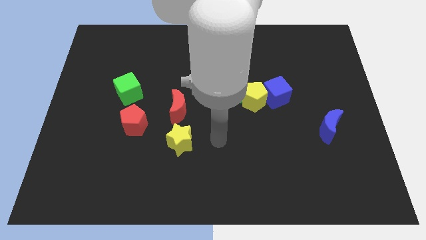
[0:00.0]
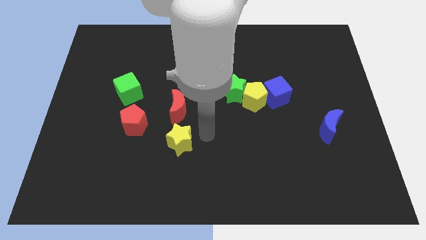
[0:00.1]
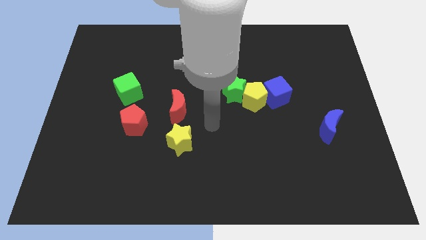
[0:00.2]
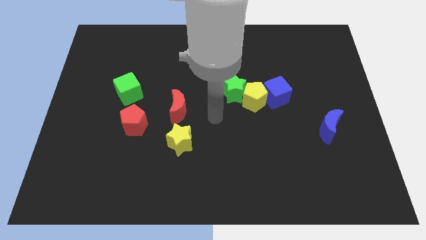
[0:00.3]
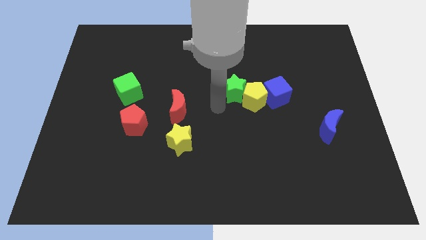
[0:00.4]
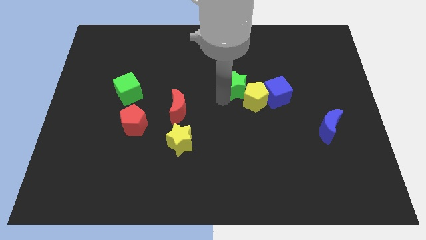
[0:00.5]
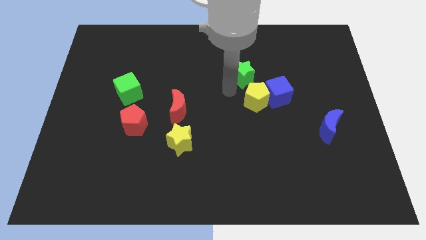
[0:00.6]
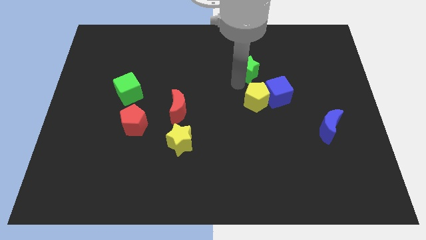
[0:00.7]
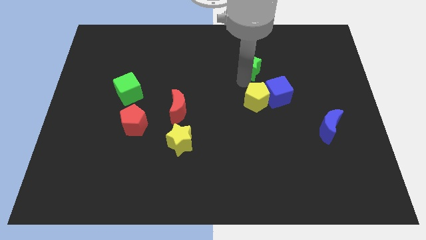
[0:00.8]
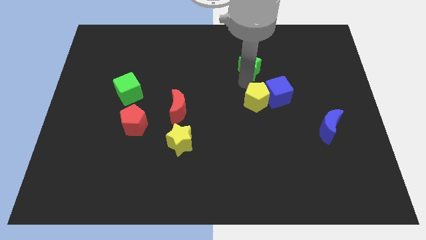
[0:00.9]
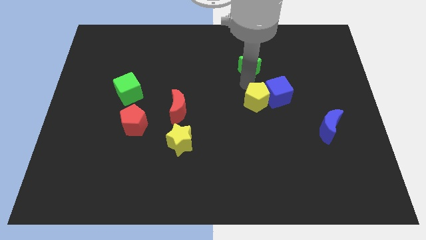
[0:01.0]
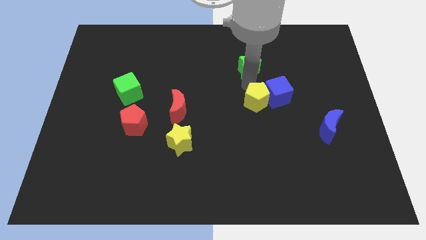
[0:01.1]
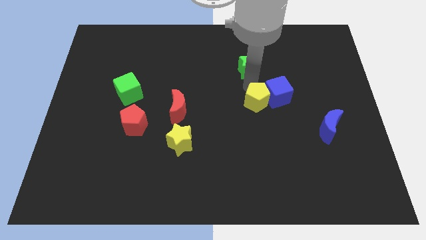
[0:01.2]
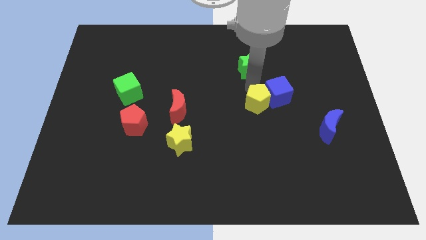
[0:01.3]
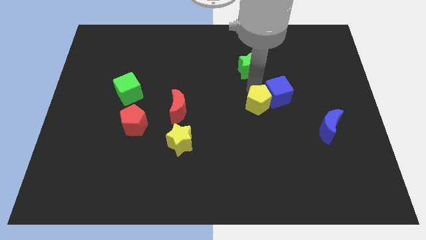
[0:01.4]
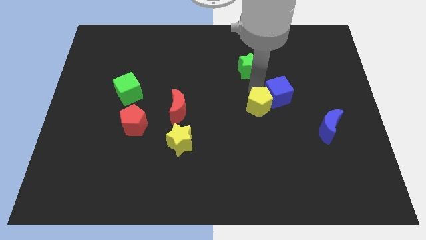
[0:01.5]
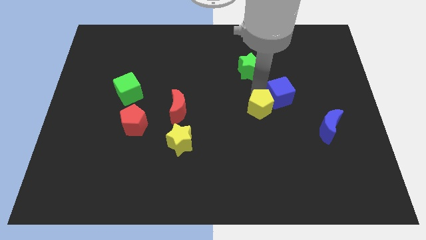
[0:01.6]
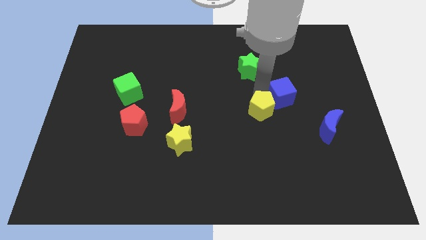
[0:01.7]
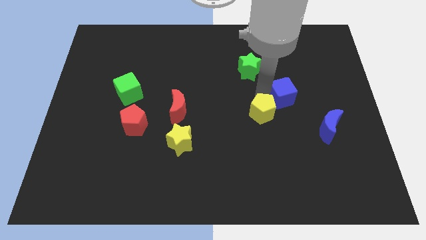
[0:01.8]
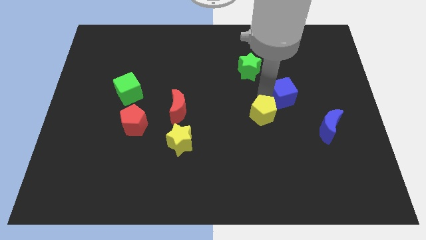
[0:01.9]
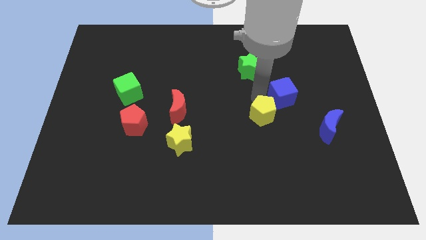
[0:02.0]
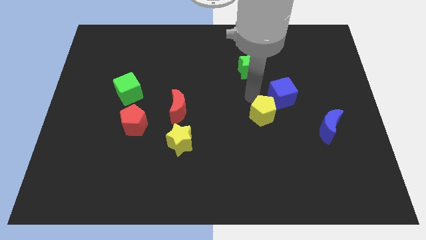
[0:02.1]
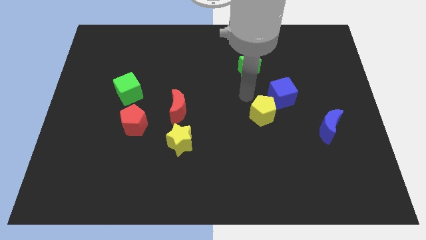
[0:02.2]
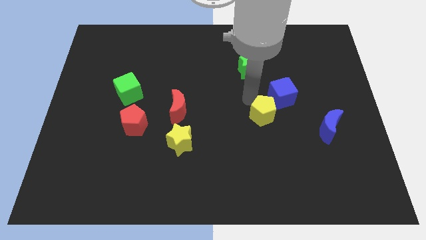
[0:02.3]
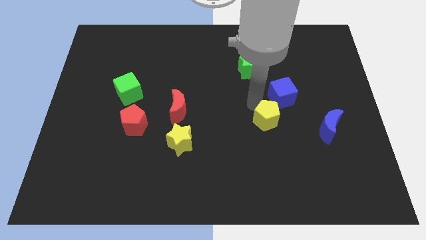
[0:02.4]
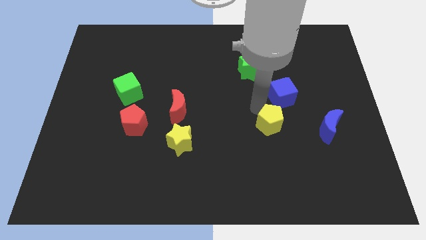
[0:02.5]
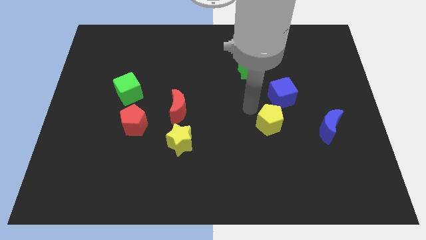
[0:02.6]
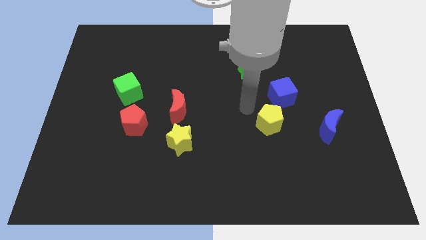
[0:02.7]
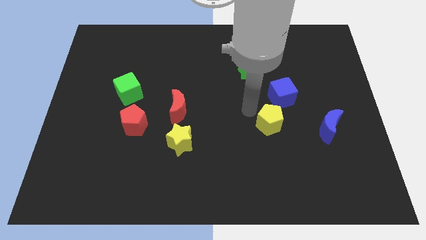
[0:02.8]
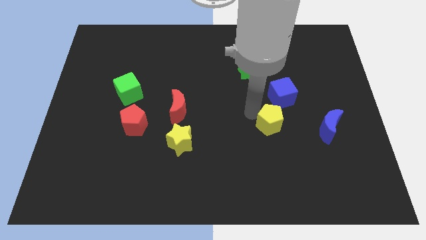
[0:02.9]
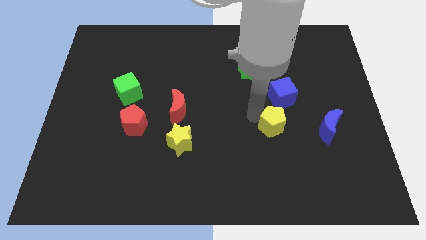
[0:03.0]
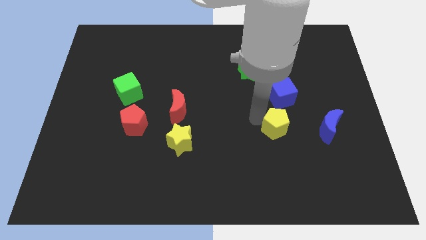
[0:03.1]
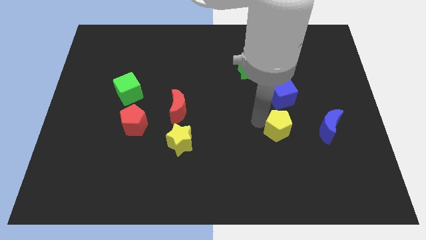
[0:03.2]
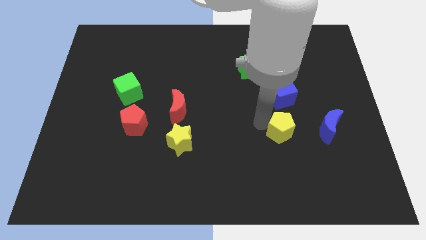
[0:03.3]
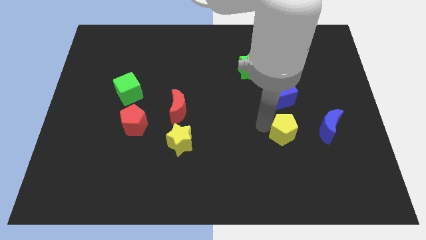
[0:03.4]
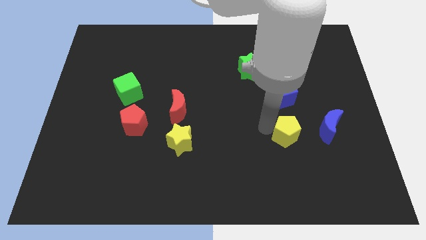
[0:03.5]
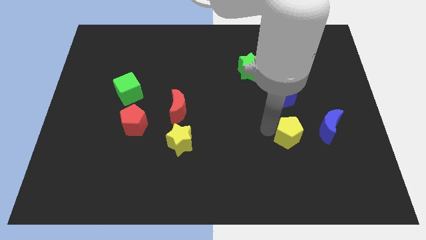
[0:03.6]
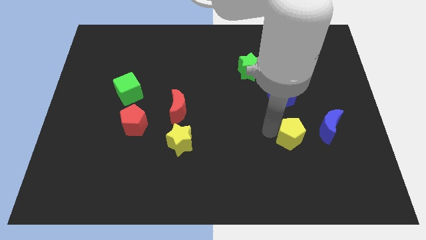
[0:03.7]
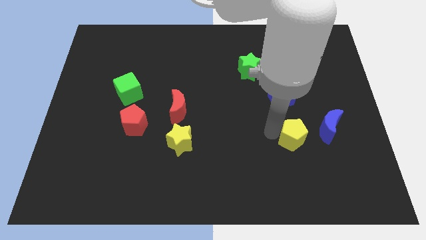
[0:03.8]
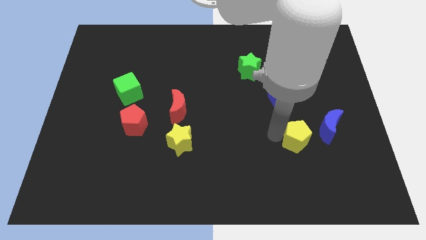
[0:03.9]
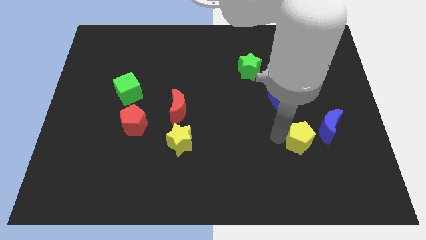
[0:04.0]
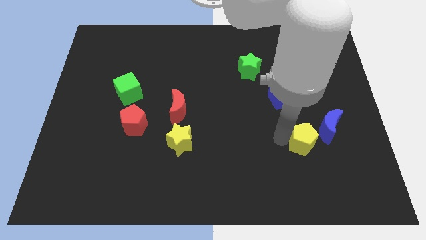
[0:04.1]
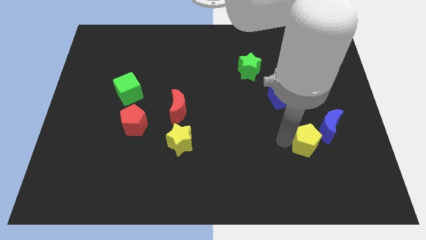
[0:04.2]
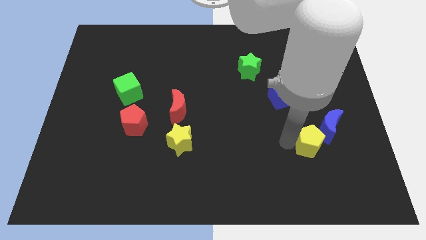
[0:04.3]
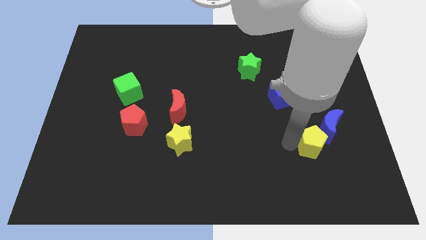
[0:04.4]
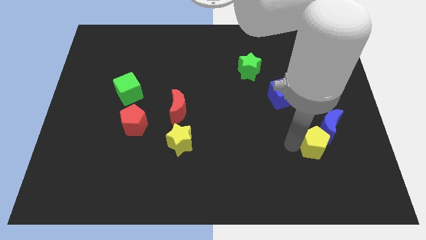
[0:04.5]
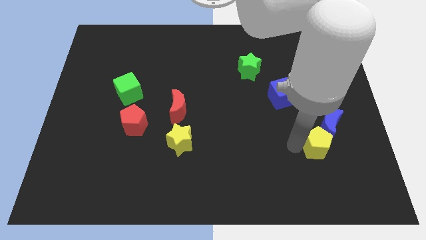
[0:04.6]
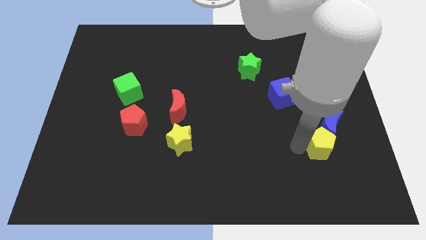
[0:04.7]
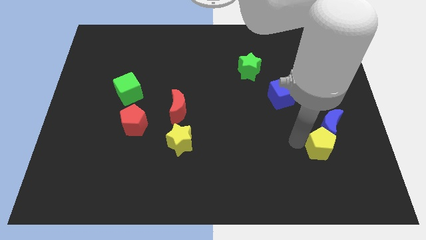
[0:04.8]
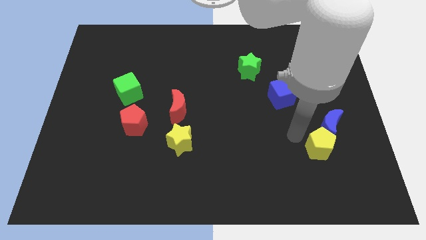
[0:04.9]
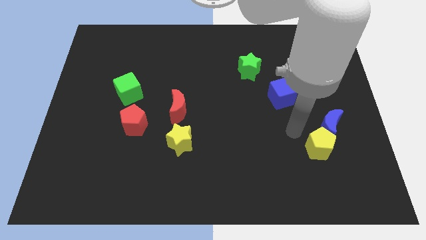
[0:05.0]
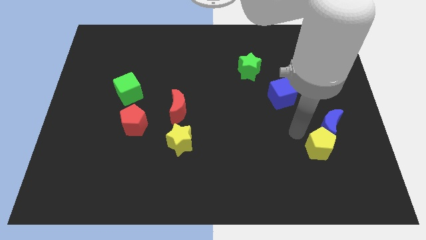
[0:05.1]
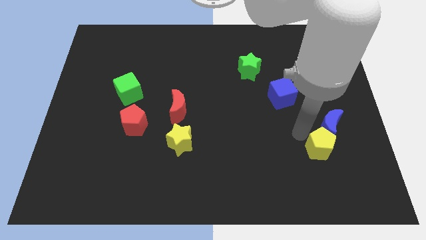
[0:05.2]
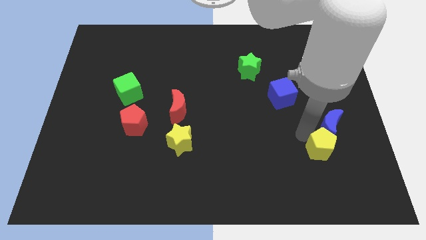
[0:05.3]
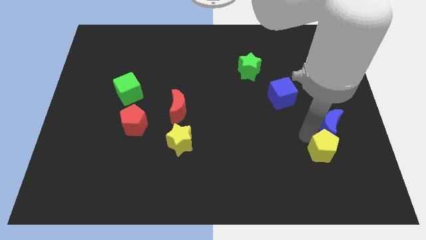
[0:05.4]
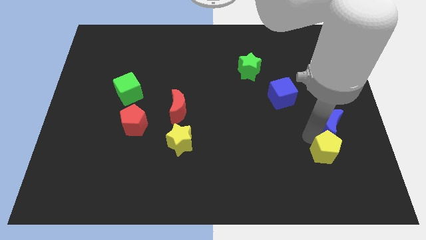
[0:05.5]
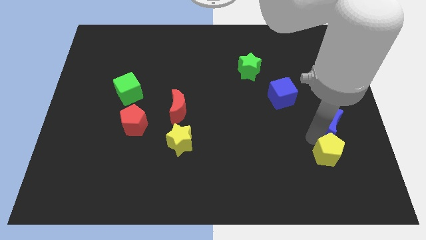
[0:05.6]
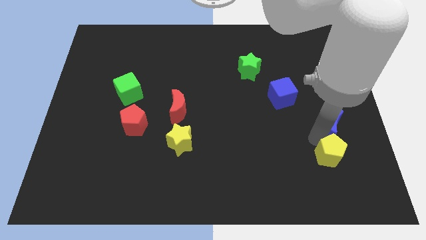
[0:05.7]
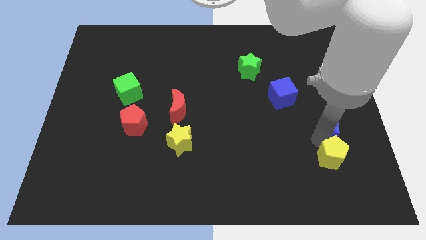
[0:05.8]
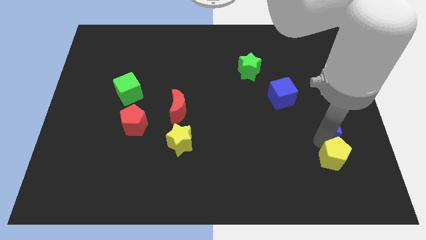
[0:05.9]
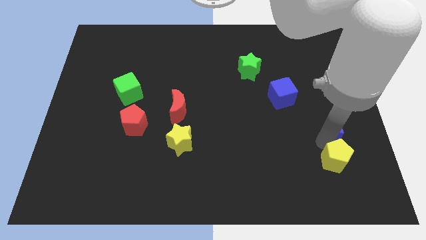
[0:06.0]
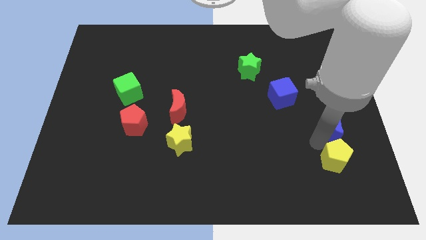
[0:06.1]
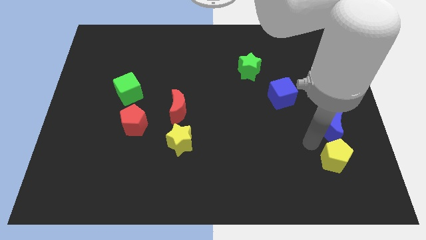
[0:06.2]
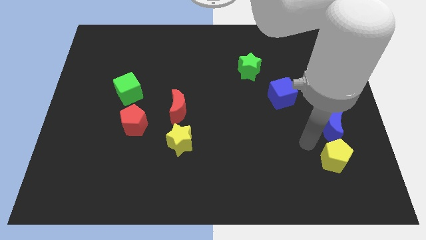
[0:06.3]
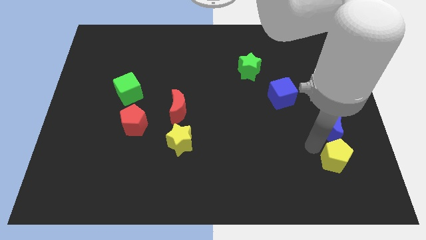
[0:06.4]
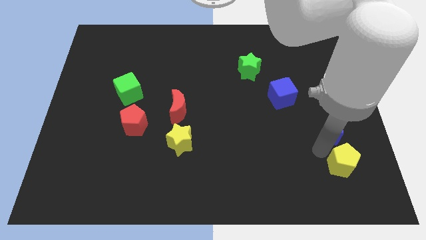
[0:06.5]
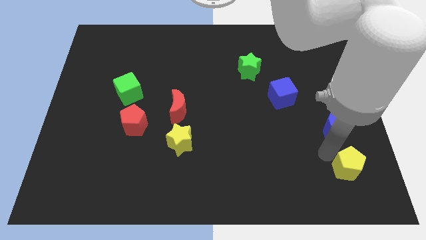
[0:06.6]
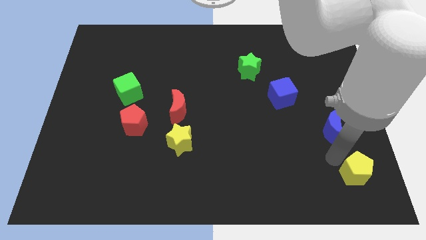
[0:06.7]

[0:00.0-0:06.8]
move the yellow pentagon to the bottom right
